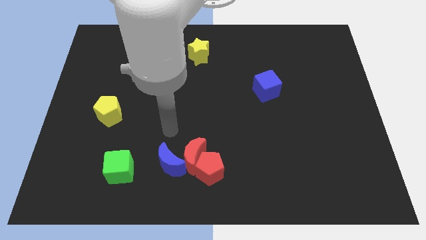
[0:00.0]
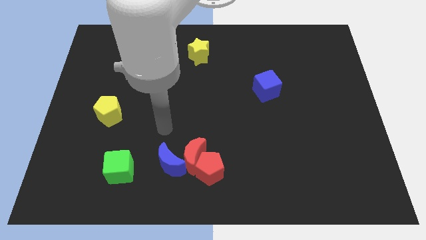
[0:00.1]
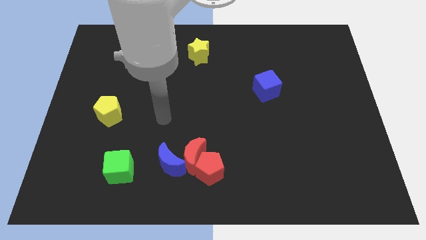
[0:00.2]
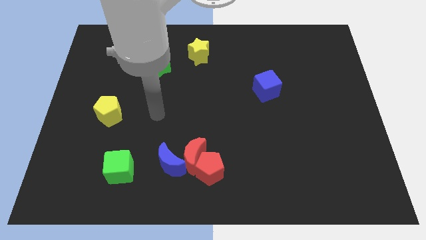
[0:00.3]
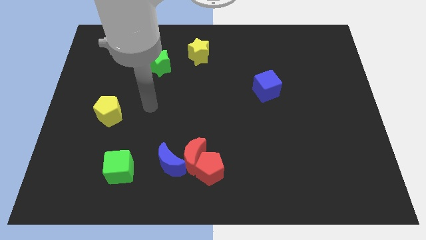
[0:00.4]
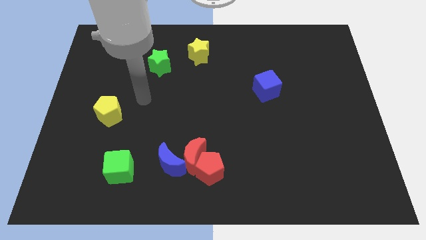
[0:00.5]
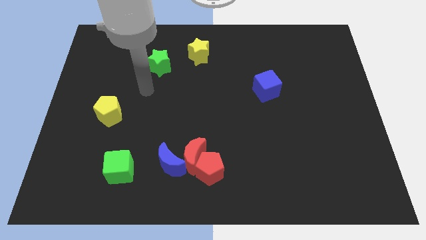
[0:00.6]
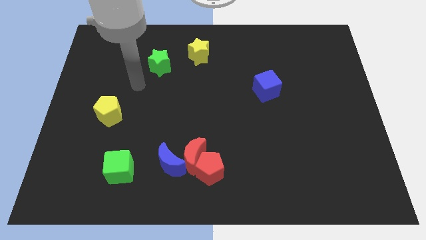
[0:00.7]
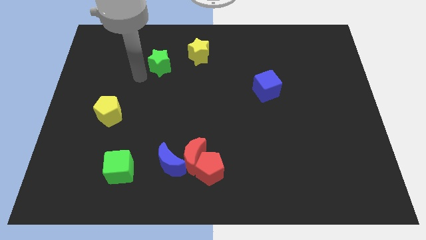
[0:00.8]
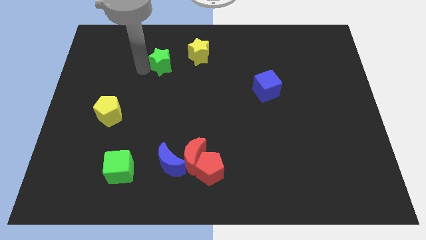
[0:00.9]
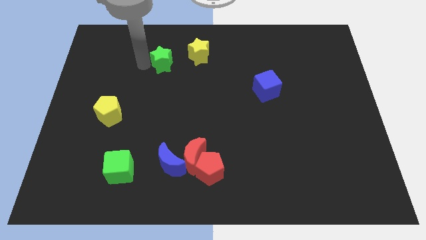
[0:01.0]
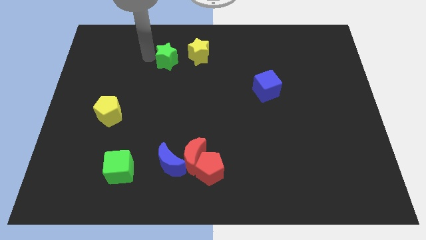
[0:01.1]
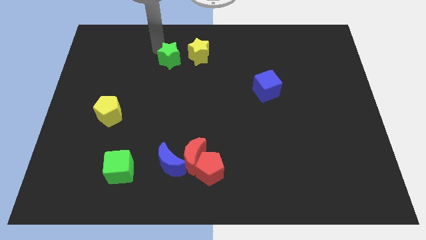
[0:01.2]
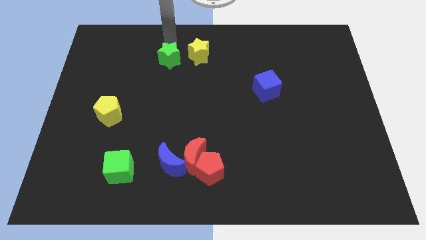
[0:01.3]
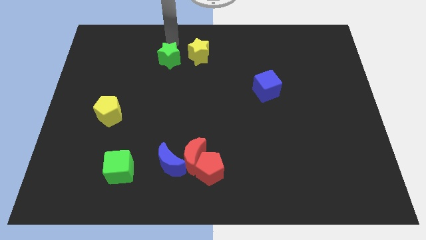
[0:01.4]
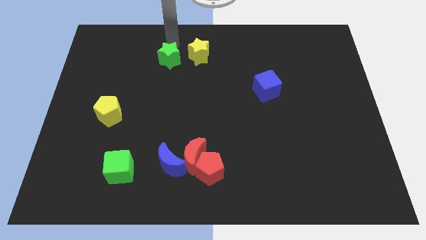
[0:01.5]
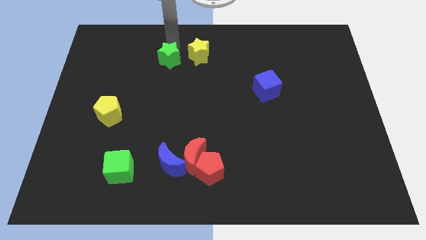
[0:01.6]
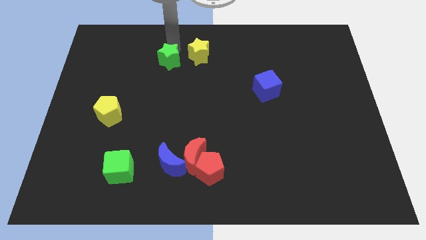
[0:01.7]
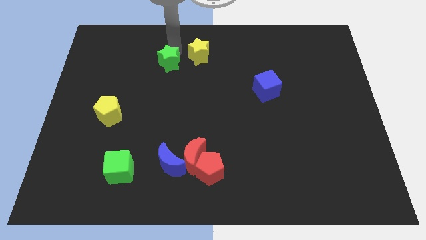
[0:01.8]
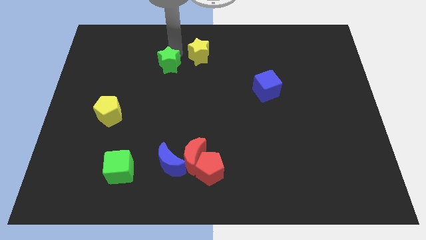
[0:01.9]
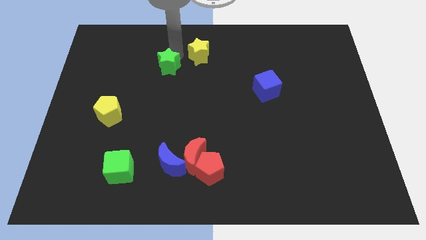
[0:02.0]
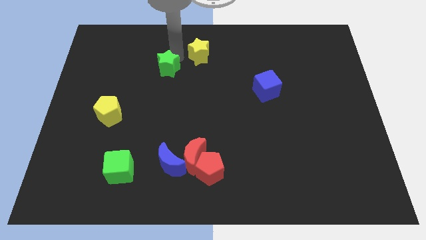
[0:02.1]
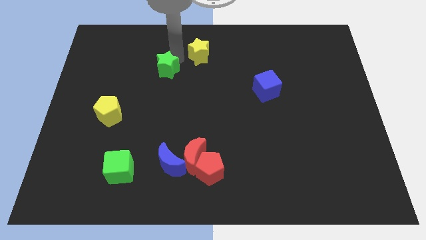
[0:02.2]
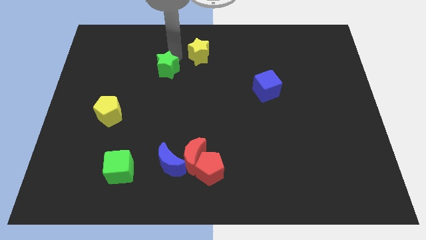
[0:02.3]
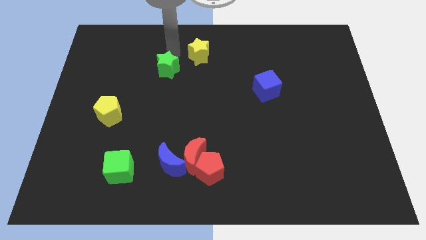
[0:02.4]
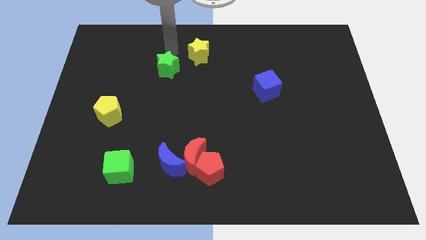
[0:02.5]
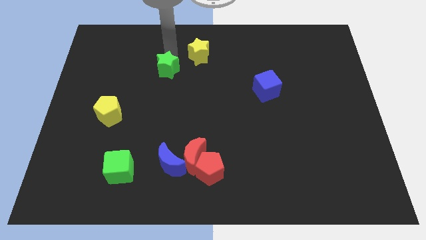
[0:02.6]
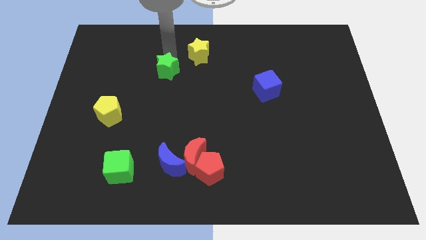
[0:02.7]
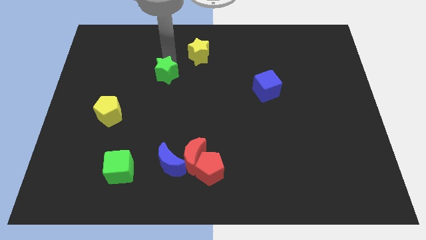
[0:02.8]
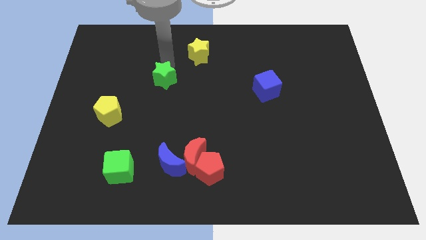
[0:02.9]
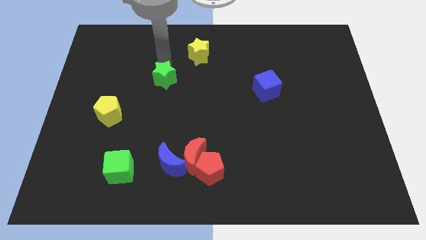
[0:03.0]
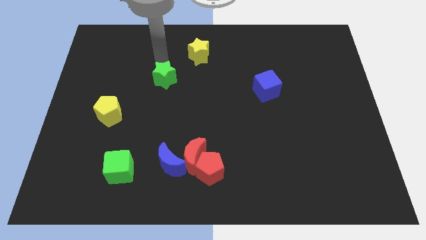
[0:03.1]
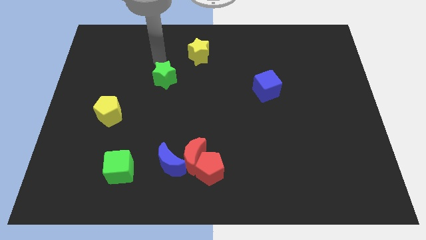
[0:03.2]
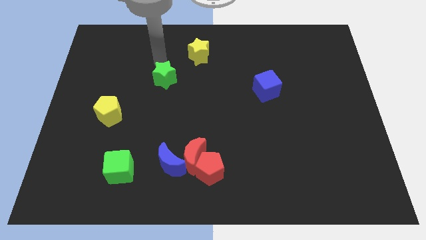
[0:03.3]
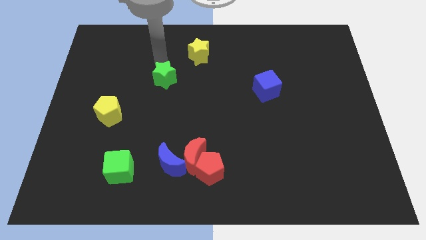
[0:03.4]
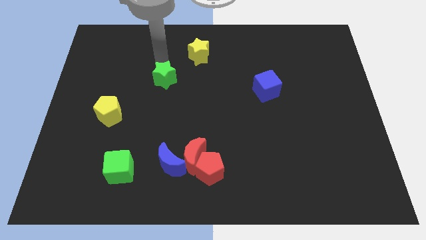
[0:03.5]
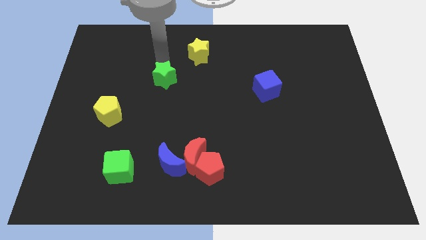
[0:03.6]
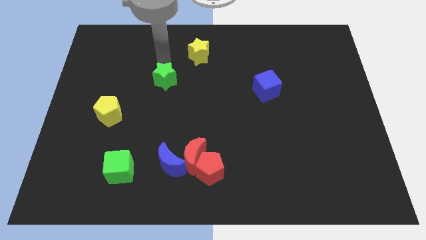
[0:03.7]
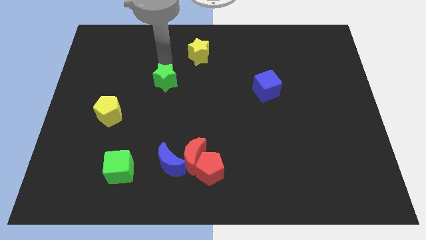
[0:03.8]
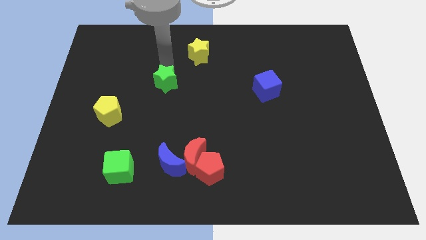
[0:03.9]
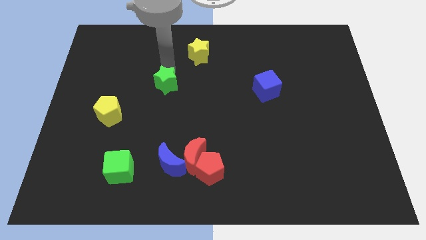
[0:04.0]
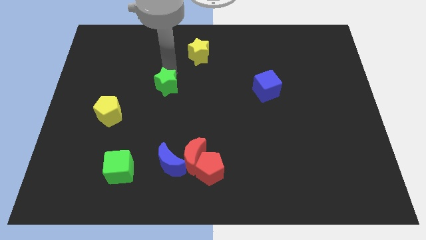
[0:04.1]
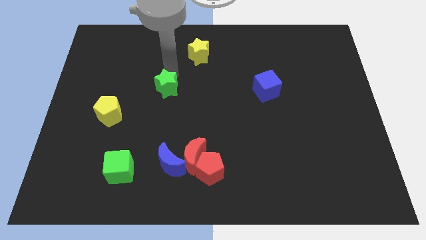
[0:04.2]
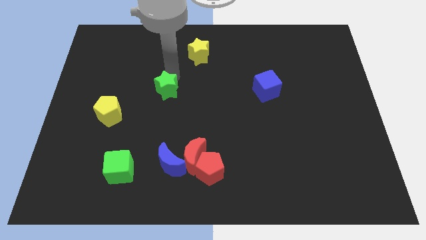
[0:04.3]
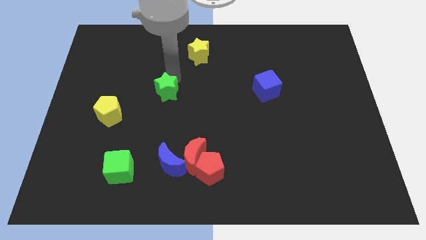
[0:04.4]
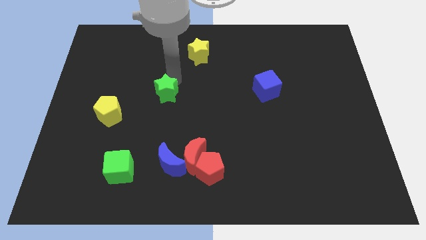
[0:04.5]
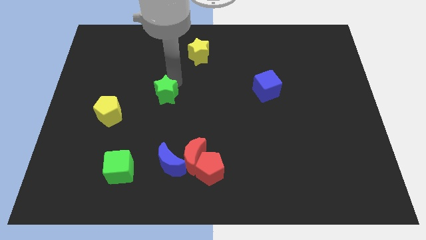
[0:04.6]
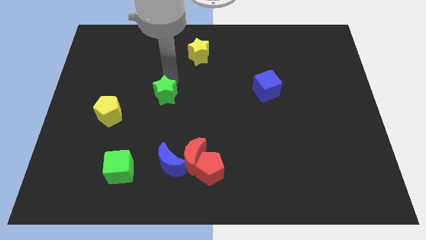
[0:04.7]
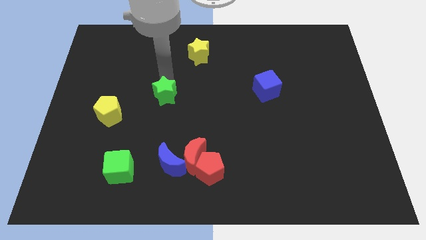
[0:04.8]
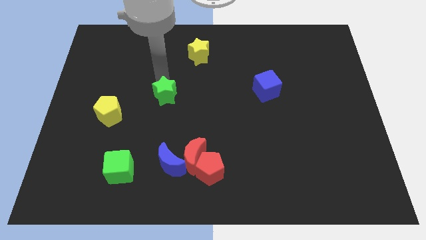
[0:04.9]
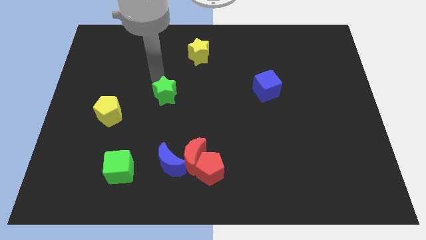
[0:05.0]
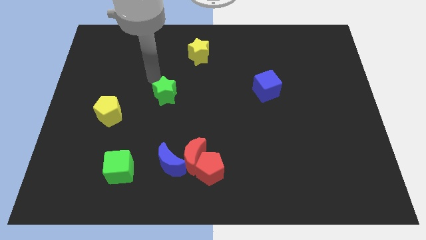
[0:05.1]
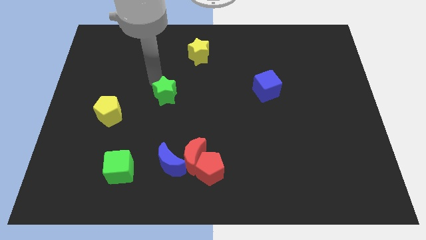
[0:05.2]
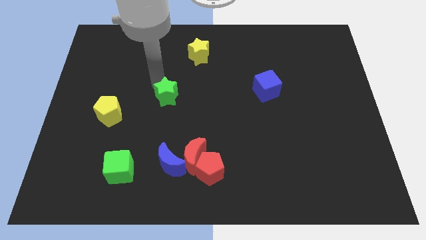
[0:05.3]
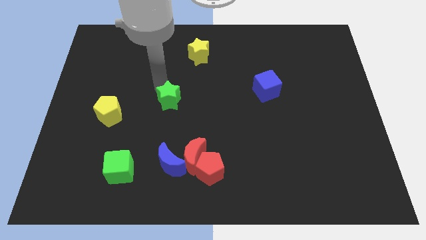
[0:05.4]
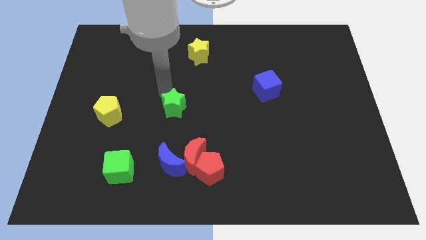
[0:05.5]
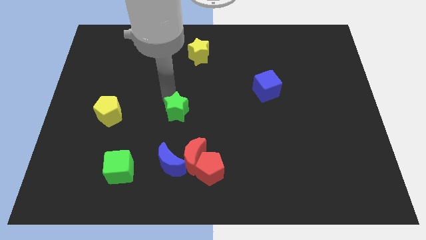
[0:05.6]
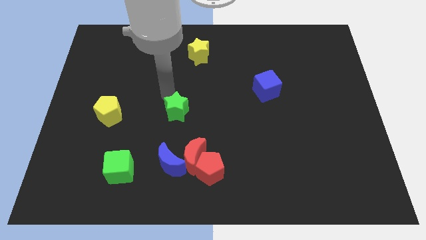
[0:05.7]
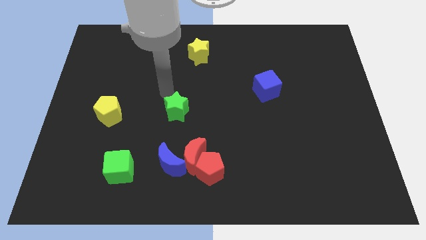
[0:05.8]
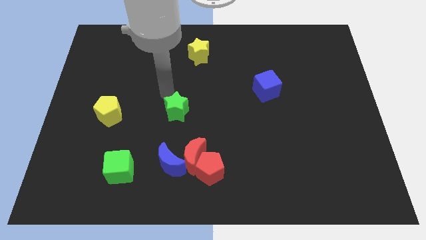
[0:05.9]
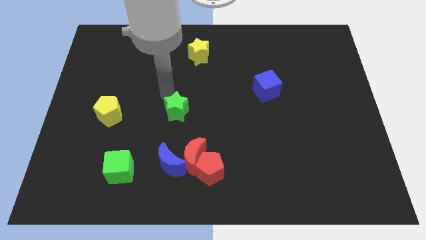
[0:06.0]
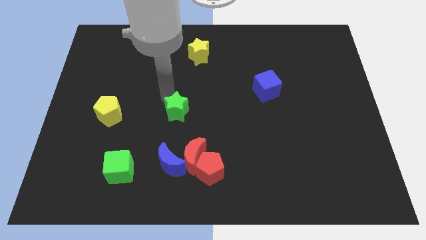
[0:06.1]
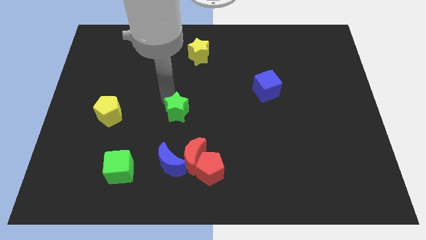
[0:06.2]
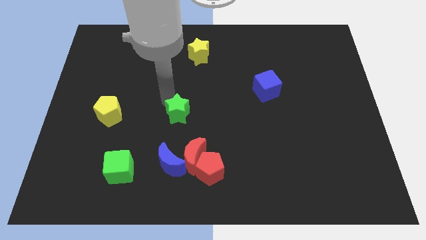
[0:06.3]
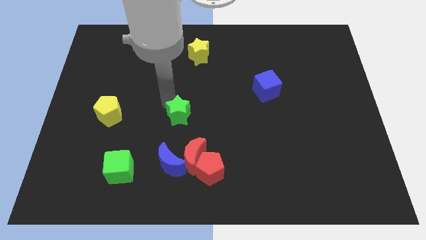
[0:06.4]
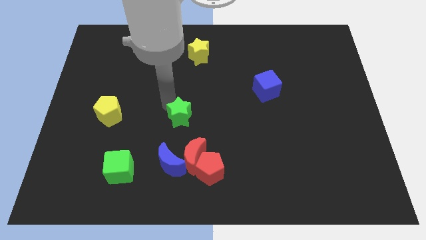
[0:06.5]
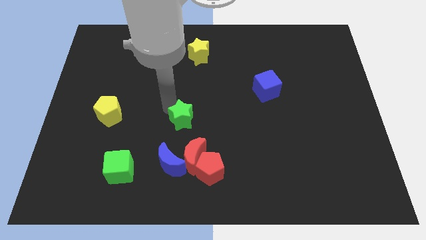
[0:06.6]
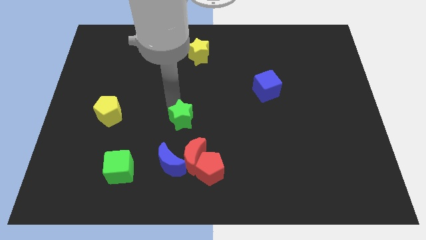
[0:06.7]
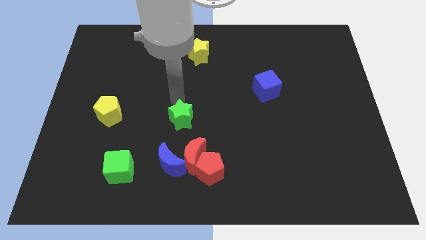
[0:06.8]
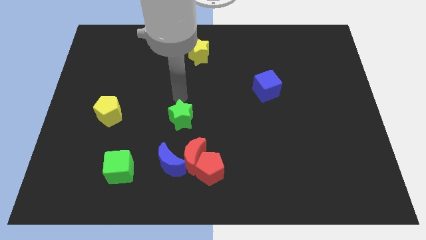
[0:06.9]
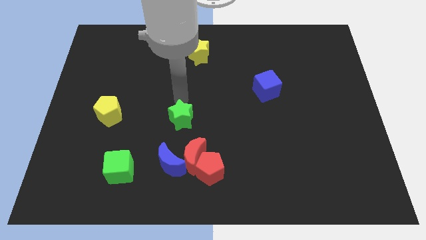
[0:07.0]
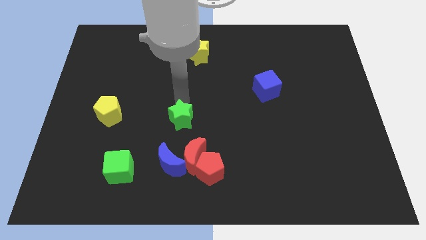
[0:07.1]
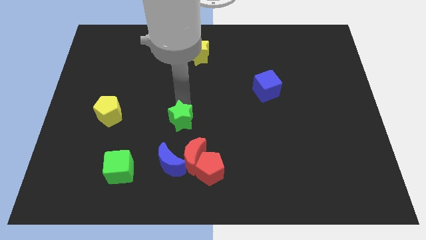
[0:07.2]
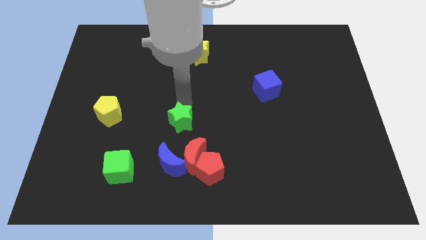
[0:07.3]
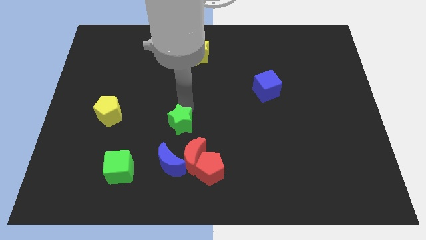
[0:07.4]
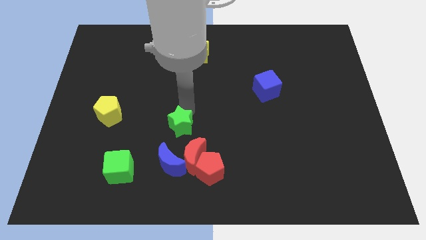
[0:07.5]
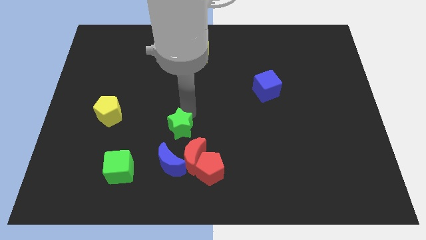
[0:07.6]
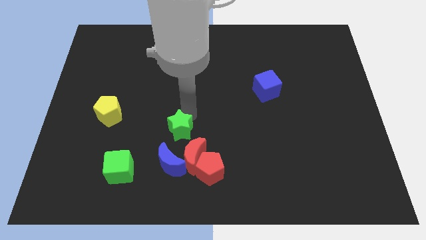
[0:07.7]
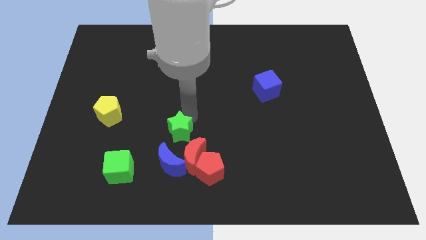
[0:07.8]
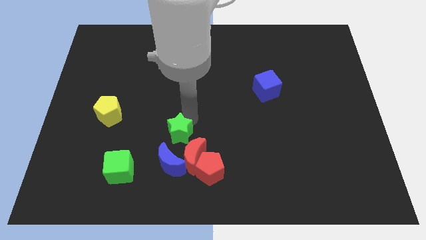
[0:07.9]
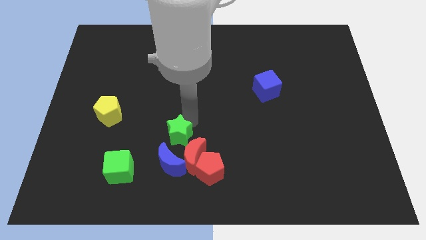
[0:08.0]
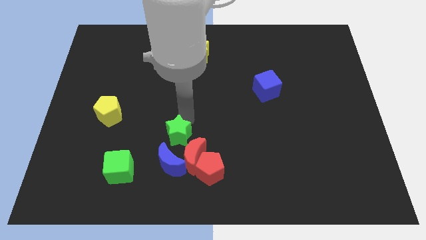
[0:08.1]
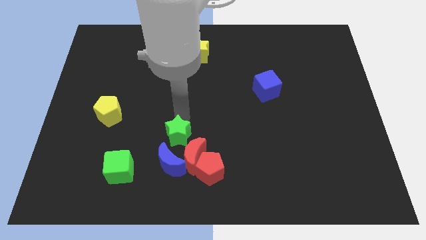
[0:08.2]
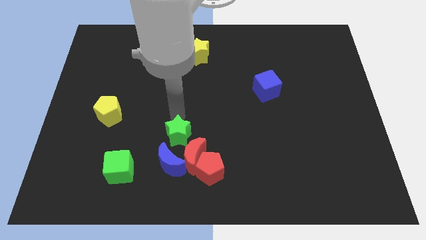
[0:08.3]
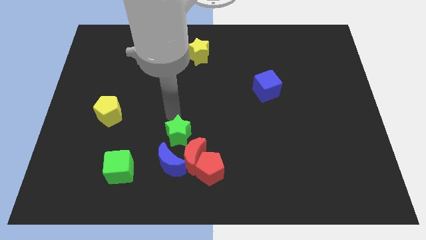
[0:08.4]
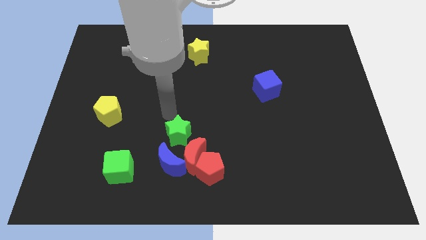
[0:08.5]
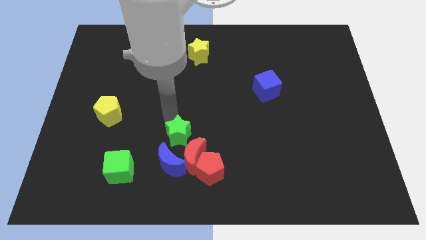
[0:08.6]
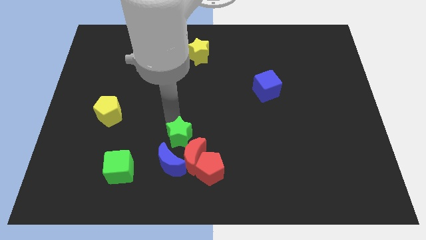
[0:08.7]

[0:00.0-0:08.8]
put the green star next to the red moon
